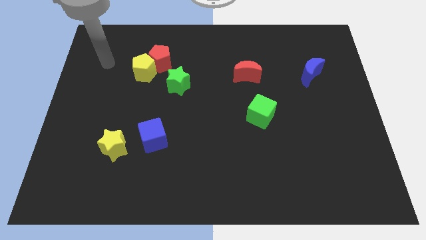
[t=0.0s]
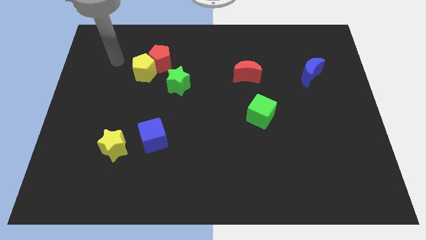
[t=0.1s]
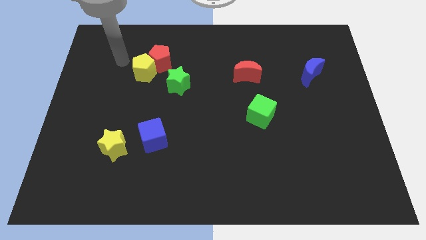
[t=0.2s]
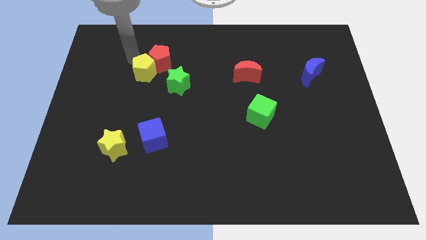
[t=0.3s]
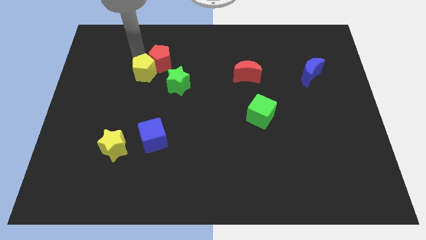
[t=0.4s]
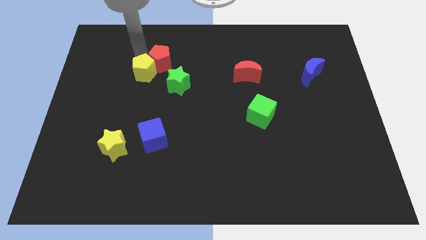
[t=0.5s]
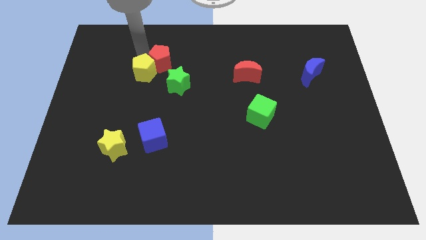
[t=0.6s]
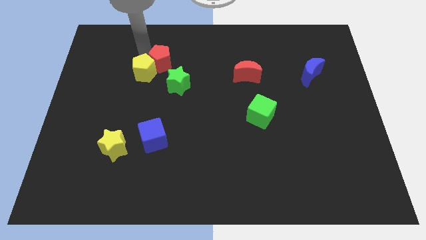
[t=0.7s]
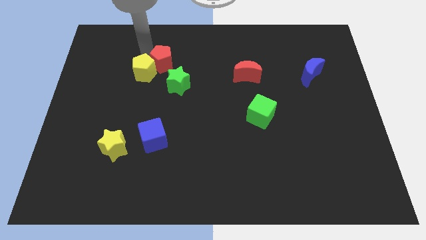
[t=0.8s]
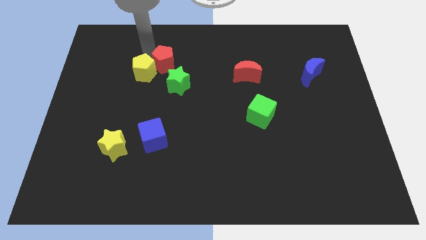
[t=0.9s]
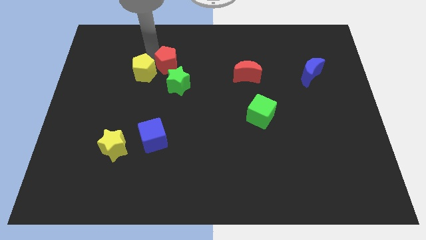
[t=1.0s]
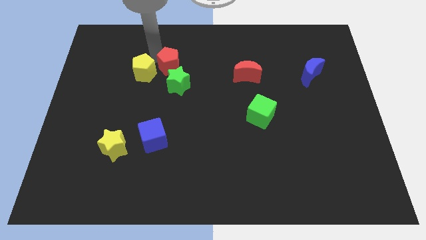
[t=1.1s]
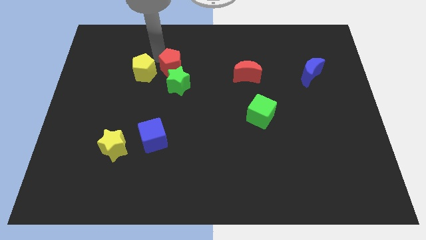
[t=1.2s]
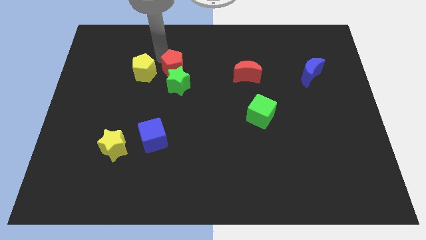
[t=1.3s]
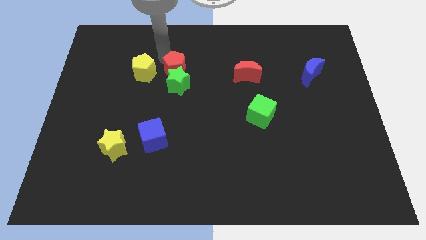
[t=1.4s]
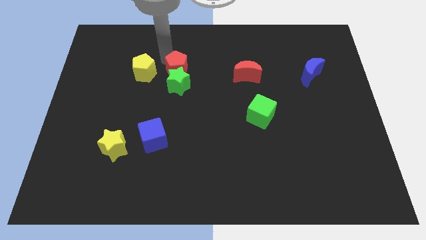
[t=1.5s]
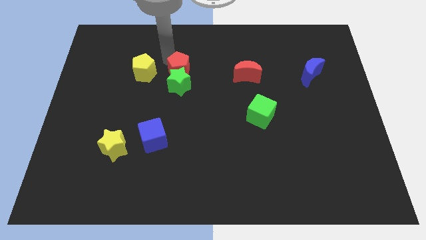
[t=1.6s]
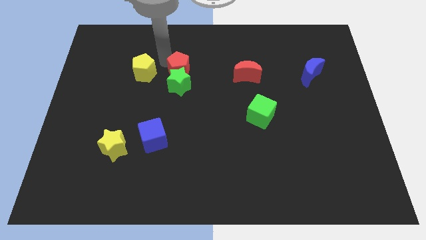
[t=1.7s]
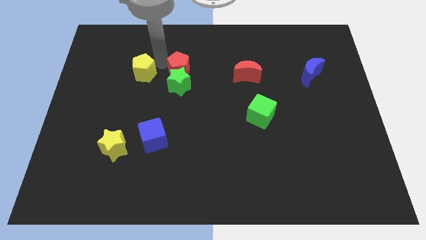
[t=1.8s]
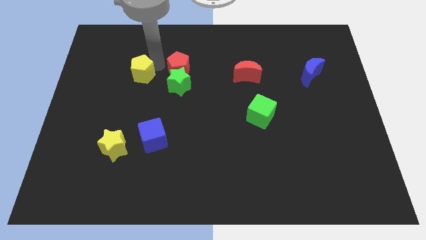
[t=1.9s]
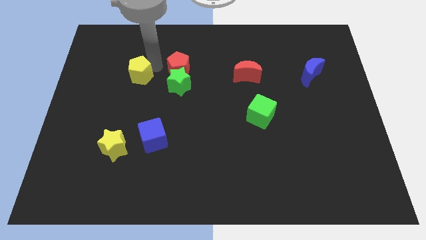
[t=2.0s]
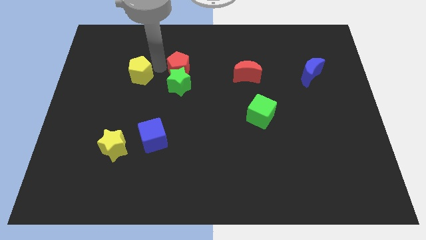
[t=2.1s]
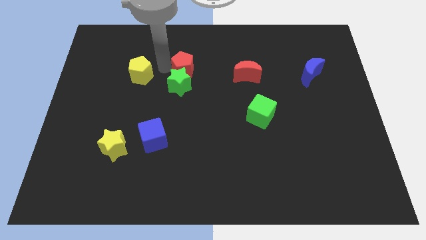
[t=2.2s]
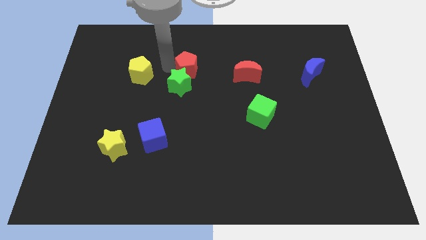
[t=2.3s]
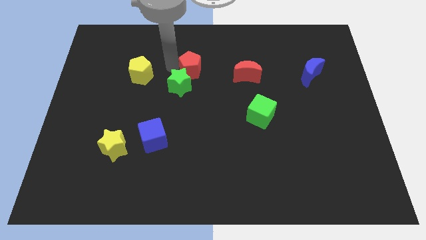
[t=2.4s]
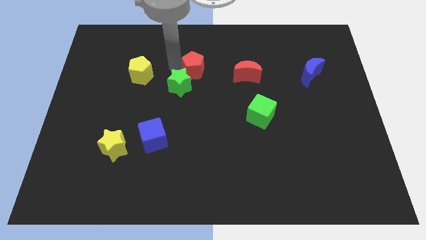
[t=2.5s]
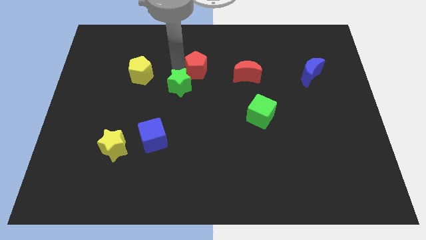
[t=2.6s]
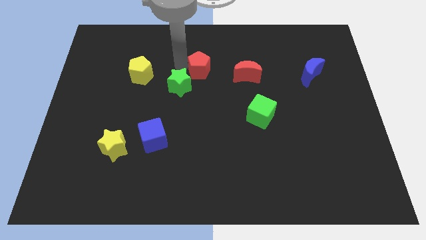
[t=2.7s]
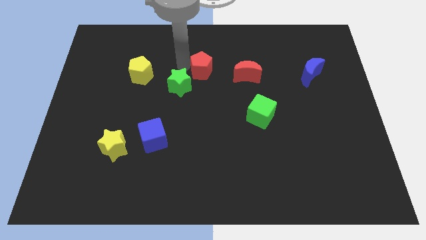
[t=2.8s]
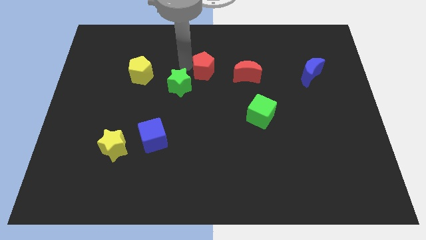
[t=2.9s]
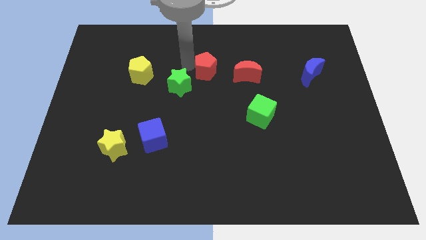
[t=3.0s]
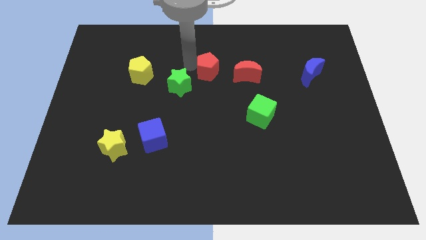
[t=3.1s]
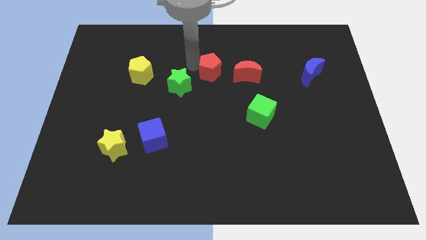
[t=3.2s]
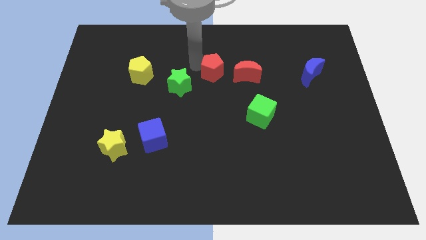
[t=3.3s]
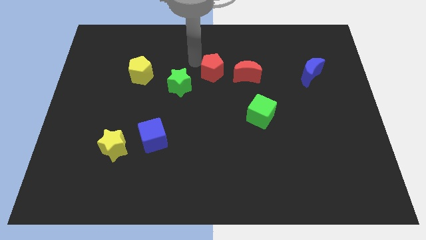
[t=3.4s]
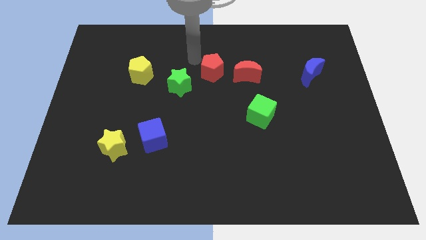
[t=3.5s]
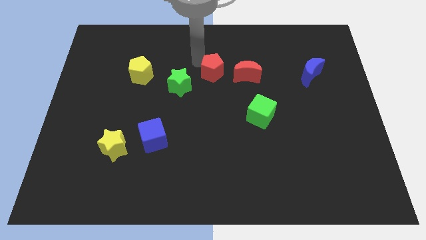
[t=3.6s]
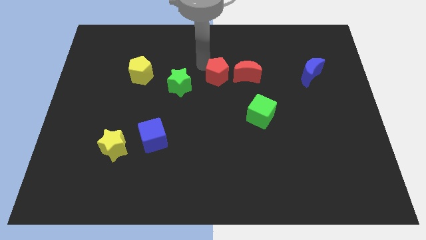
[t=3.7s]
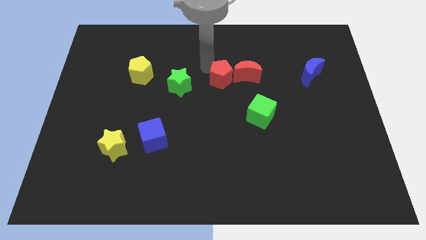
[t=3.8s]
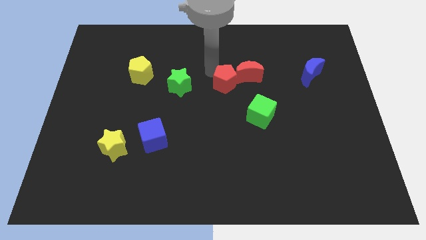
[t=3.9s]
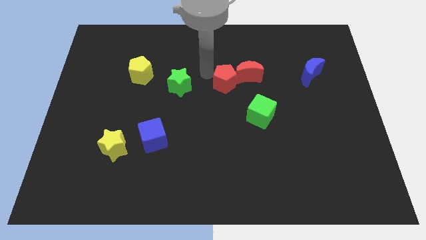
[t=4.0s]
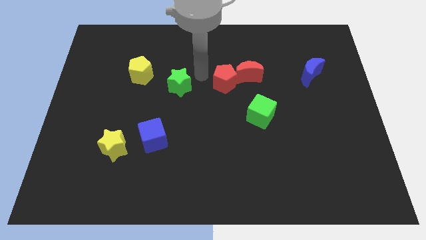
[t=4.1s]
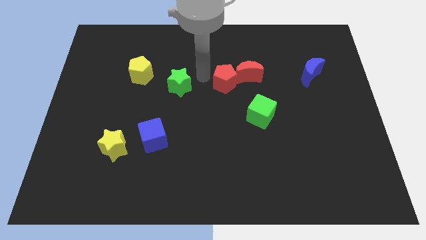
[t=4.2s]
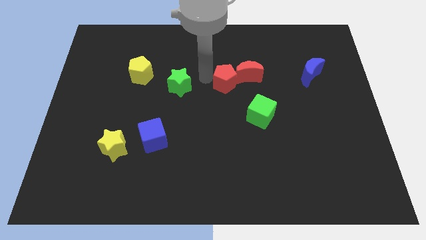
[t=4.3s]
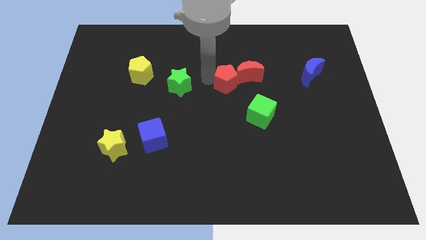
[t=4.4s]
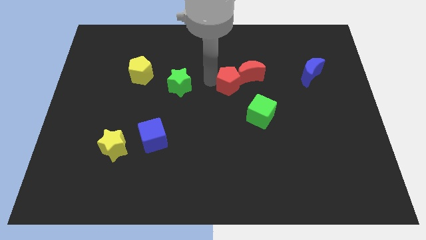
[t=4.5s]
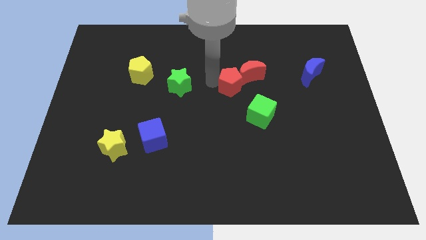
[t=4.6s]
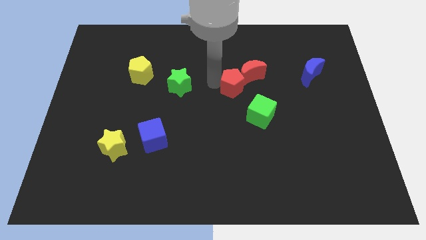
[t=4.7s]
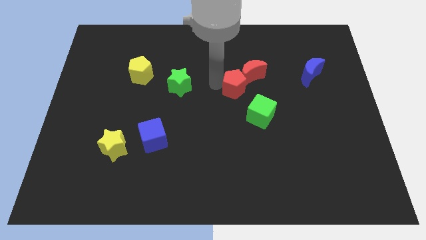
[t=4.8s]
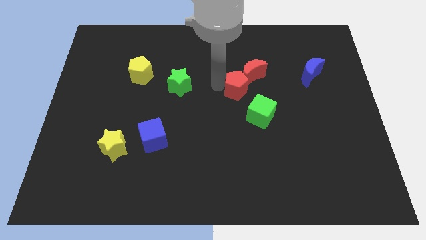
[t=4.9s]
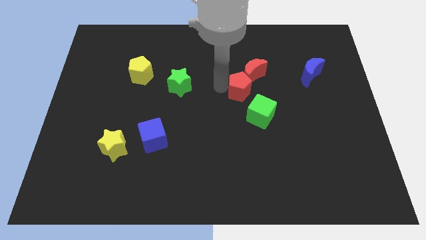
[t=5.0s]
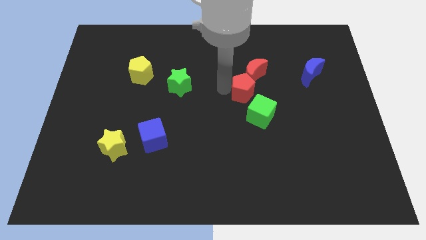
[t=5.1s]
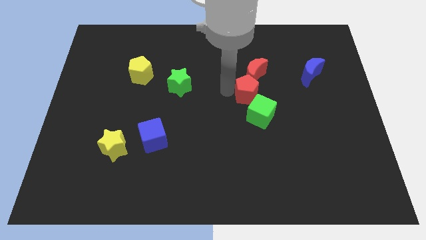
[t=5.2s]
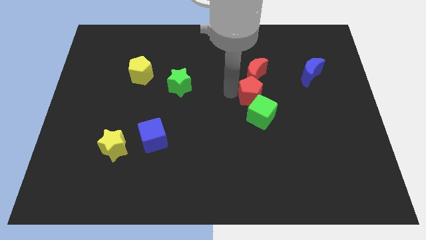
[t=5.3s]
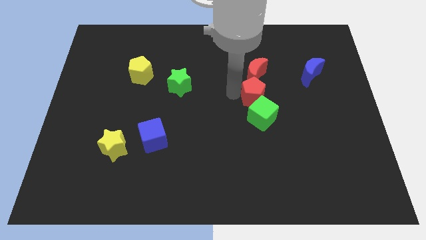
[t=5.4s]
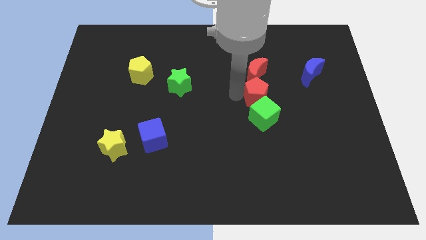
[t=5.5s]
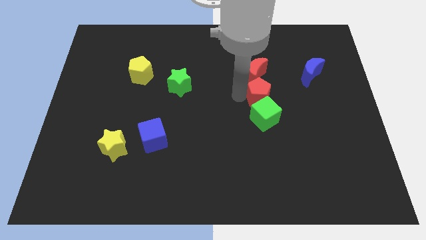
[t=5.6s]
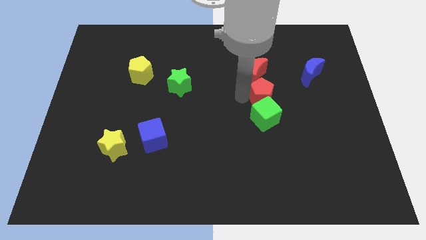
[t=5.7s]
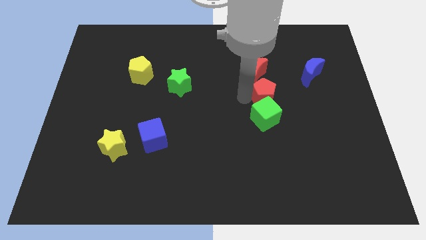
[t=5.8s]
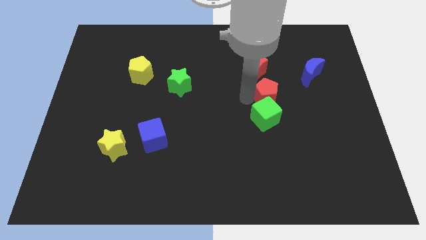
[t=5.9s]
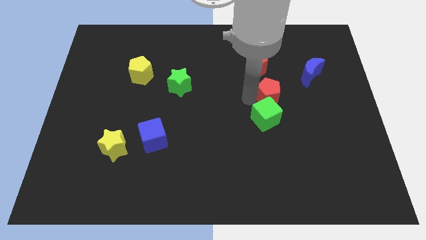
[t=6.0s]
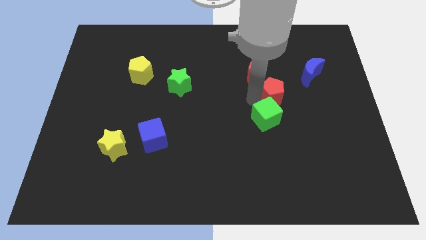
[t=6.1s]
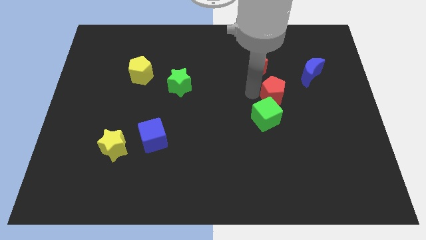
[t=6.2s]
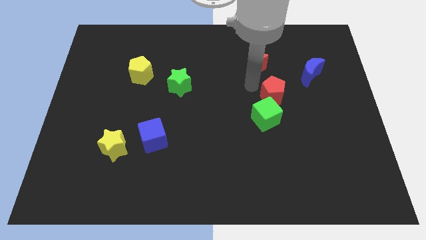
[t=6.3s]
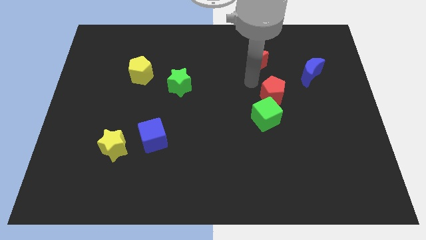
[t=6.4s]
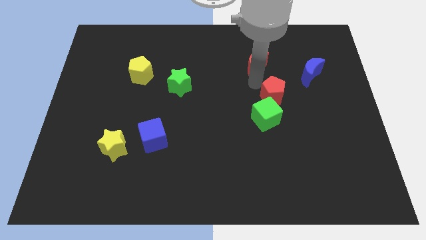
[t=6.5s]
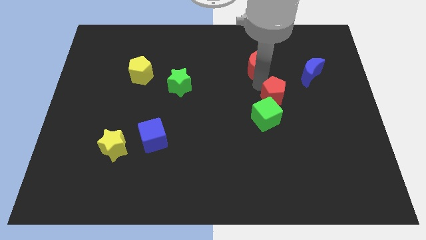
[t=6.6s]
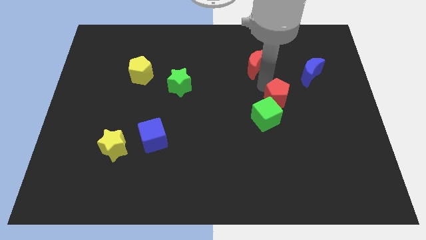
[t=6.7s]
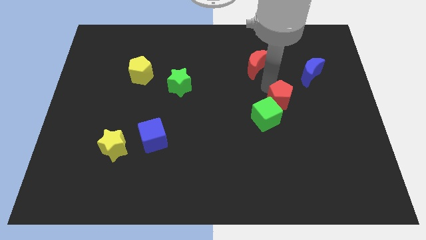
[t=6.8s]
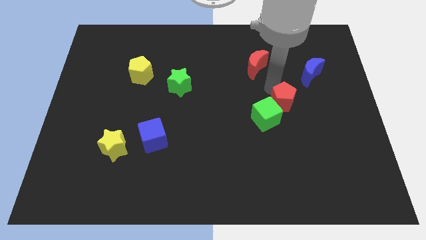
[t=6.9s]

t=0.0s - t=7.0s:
push the red pentagon just right of the green cube
